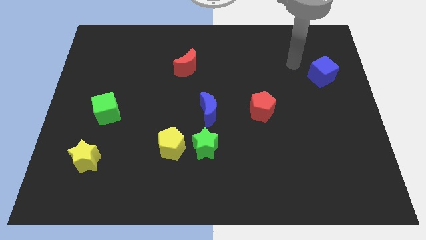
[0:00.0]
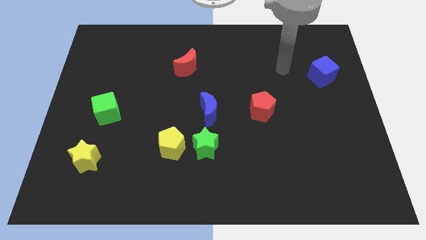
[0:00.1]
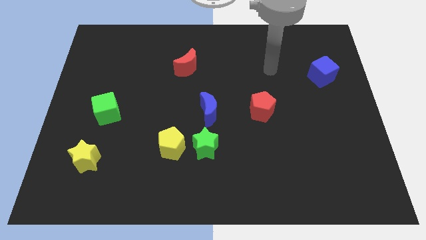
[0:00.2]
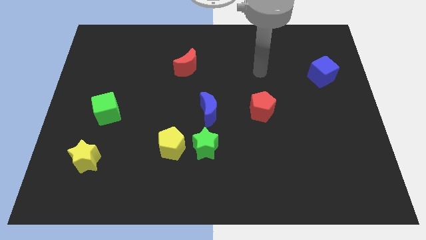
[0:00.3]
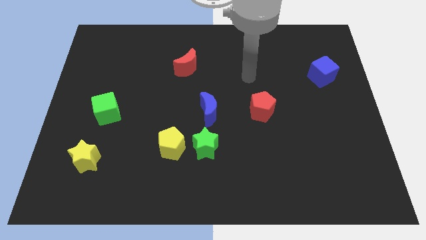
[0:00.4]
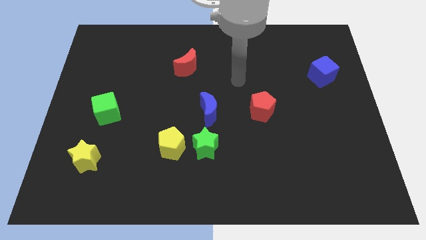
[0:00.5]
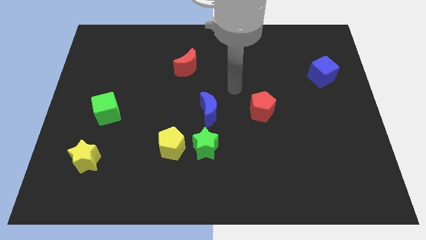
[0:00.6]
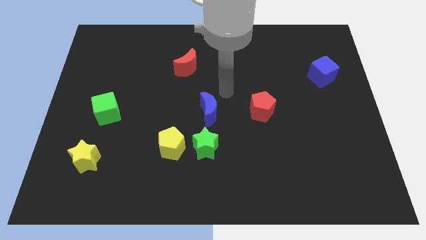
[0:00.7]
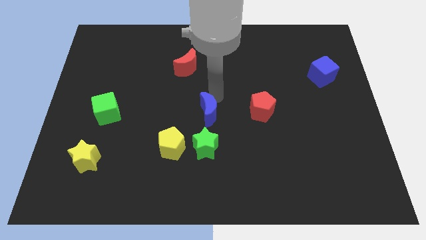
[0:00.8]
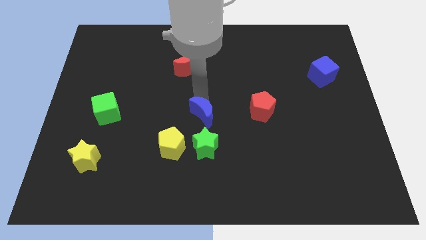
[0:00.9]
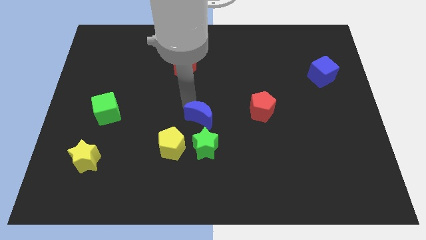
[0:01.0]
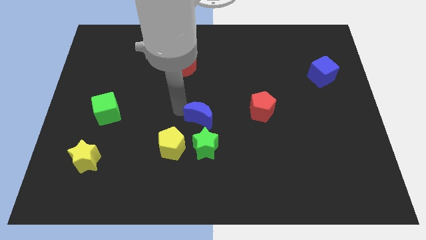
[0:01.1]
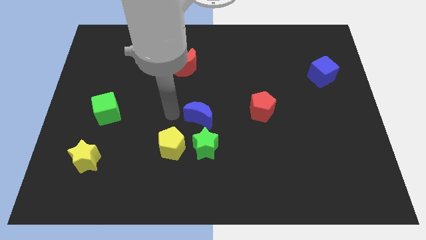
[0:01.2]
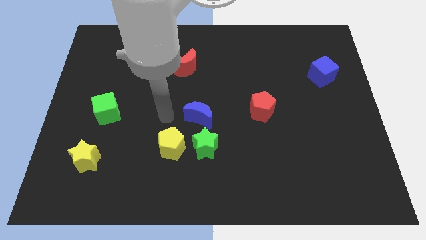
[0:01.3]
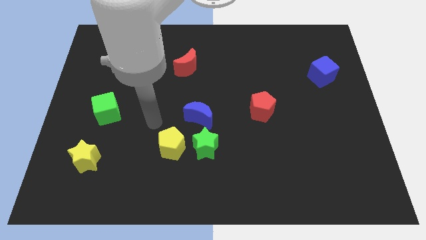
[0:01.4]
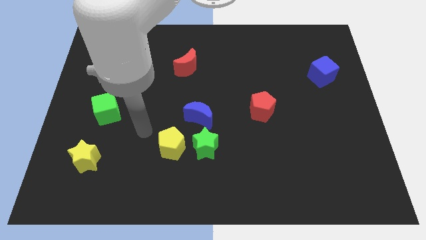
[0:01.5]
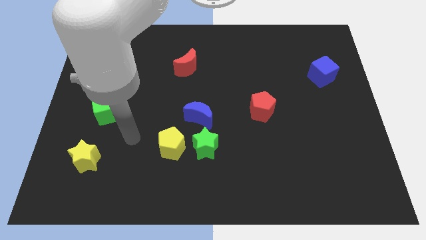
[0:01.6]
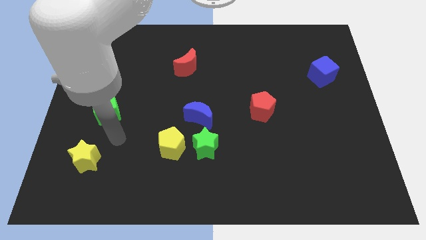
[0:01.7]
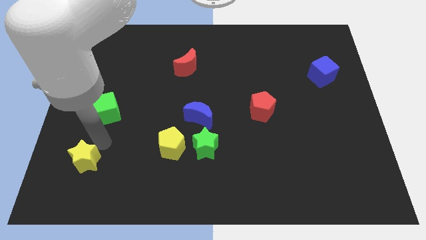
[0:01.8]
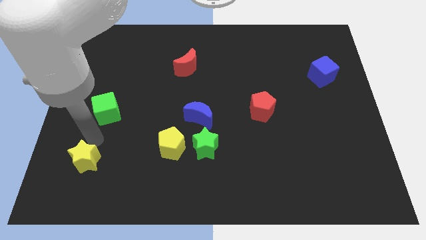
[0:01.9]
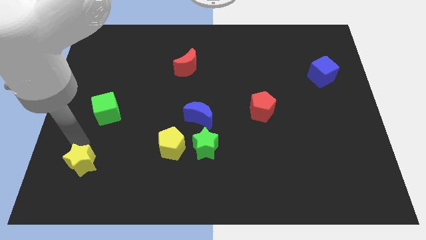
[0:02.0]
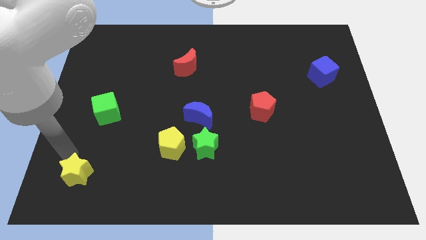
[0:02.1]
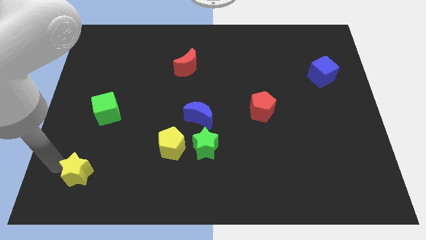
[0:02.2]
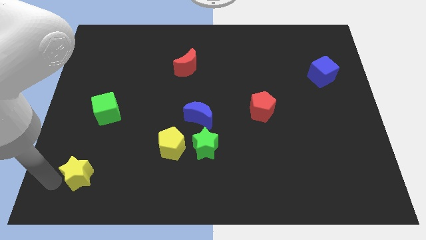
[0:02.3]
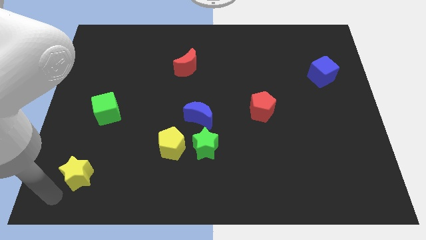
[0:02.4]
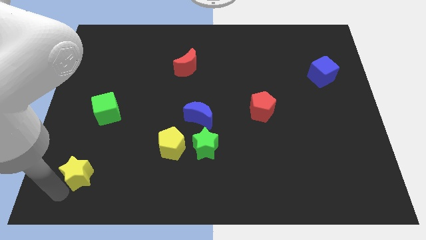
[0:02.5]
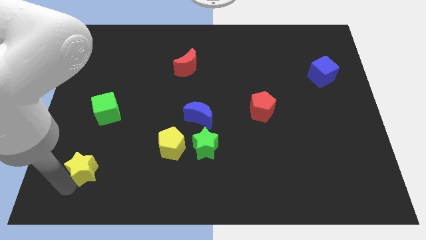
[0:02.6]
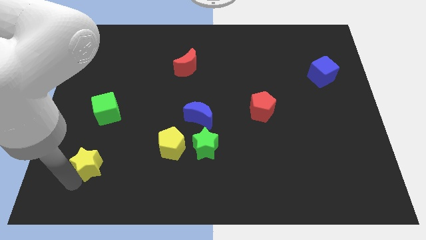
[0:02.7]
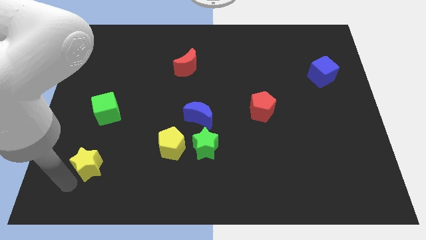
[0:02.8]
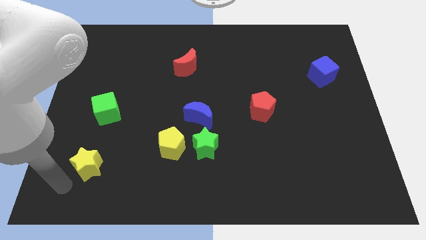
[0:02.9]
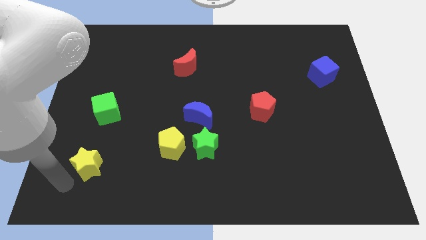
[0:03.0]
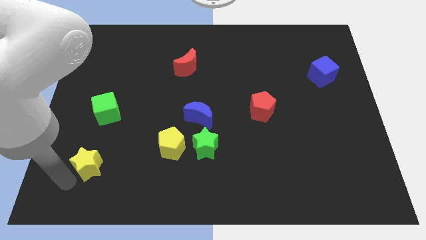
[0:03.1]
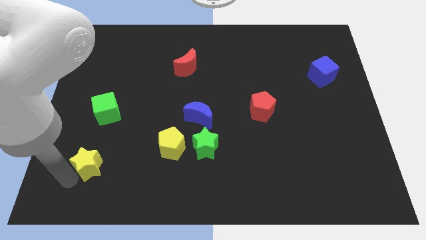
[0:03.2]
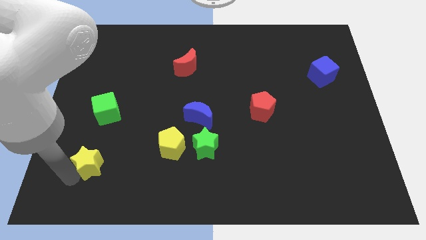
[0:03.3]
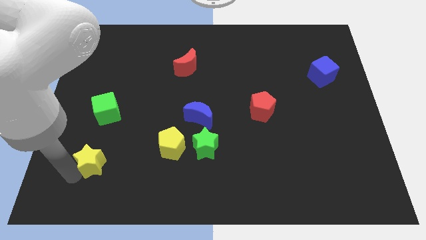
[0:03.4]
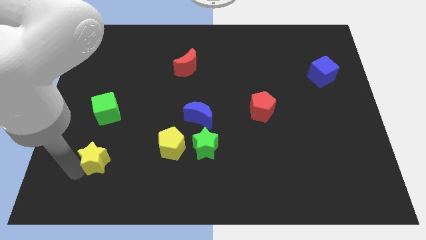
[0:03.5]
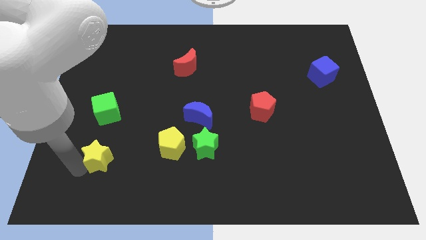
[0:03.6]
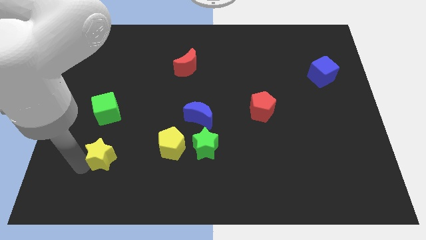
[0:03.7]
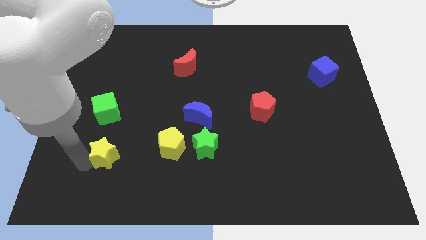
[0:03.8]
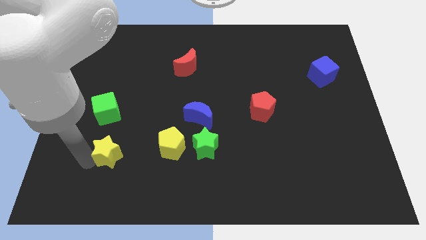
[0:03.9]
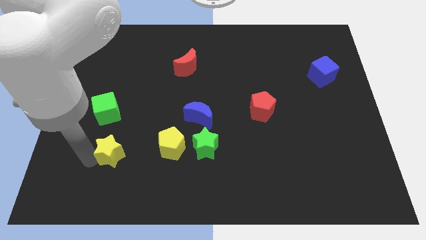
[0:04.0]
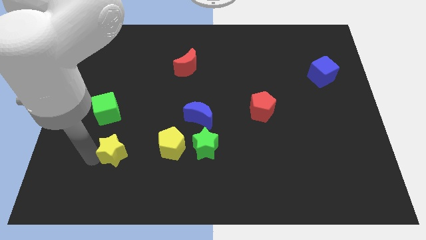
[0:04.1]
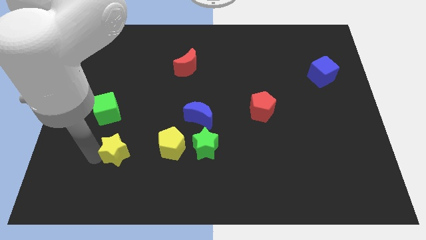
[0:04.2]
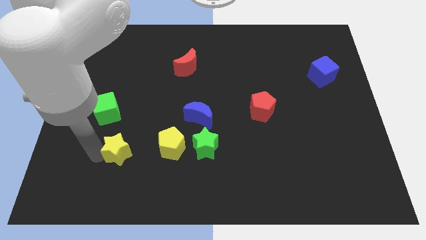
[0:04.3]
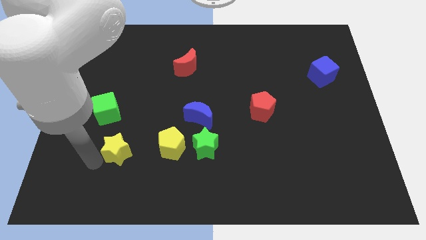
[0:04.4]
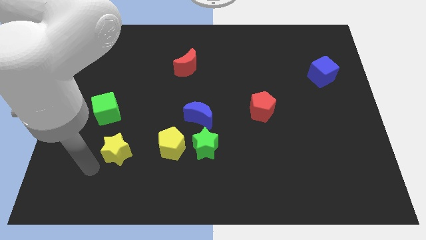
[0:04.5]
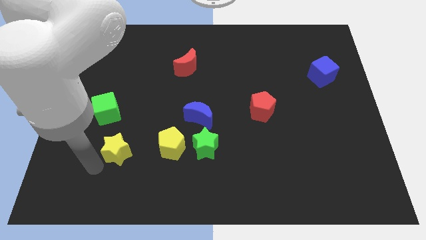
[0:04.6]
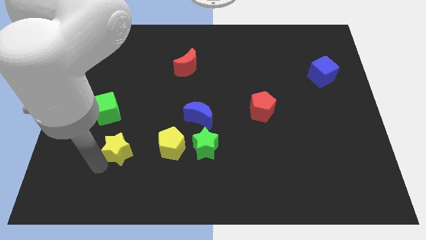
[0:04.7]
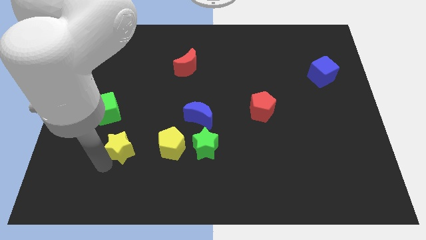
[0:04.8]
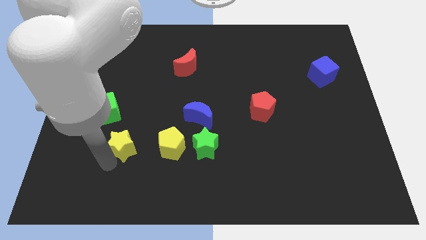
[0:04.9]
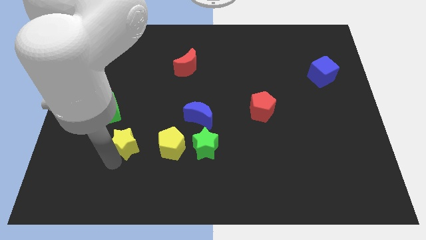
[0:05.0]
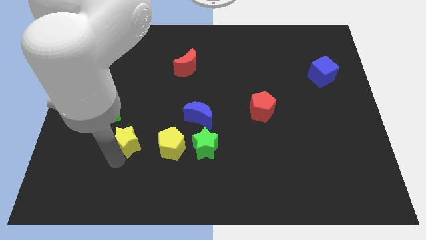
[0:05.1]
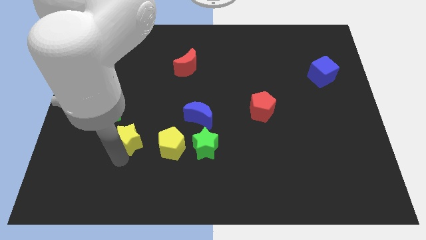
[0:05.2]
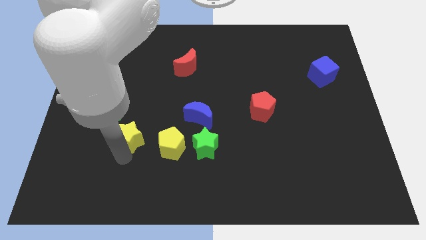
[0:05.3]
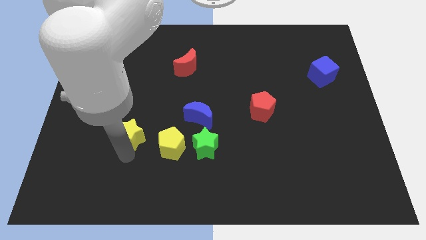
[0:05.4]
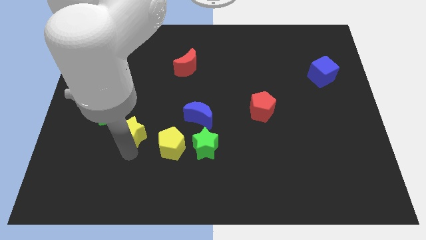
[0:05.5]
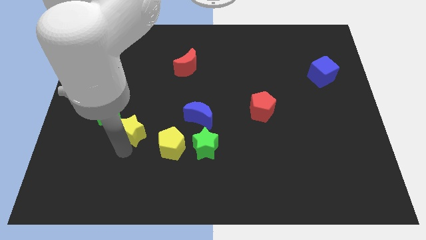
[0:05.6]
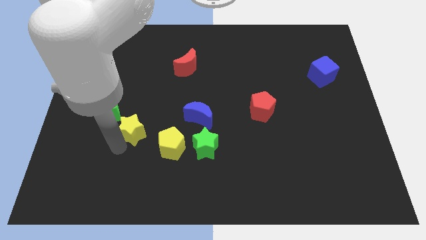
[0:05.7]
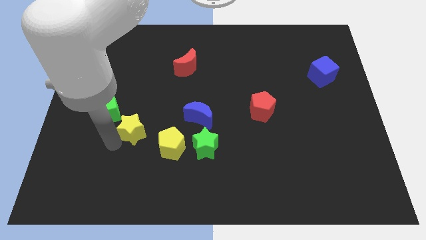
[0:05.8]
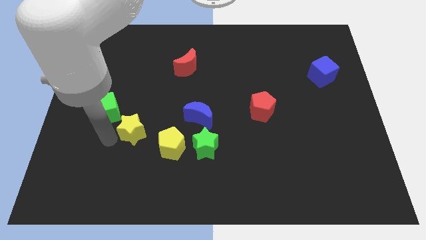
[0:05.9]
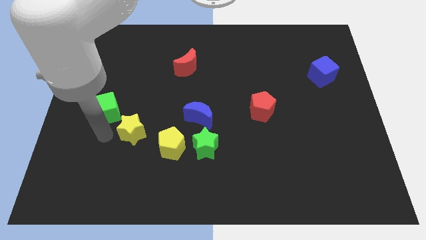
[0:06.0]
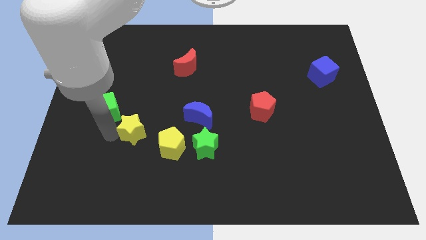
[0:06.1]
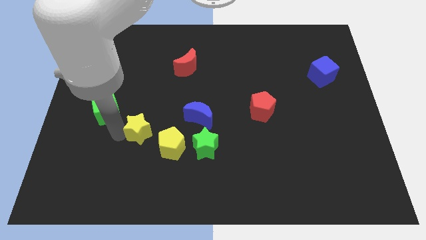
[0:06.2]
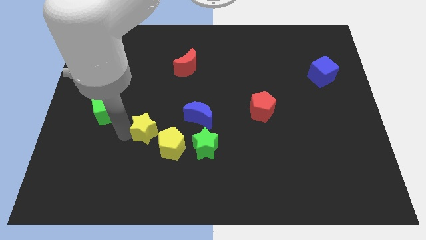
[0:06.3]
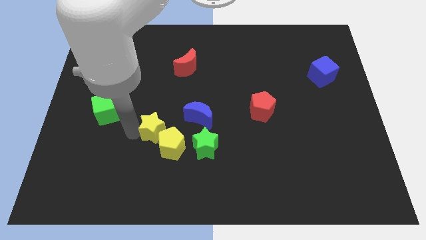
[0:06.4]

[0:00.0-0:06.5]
slide the yellow star diagonally down and to the left of the blue moon

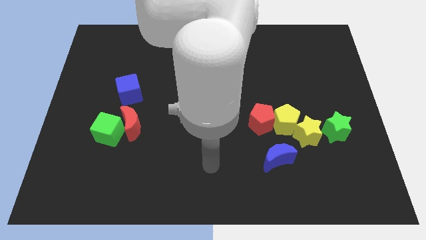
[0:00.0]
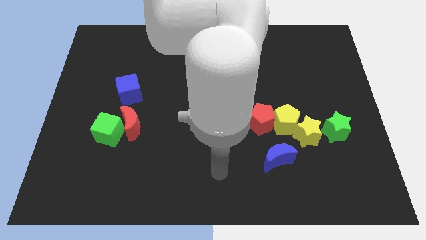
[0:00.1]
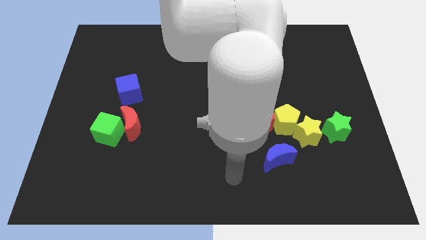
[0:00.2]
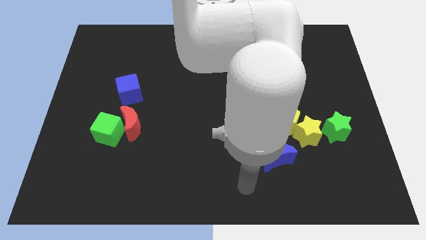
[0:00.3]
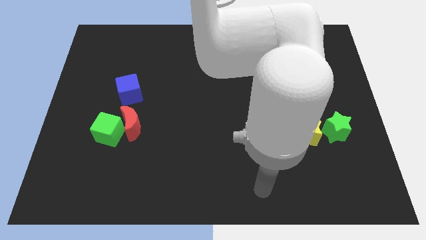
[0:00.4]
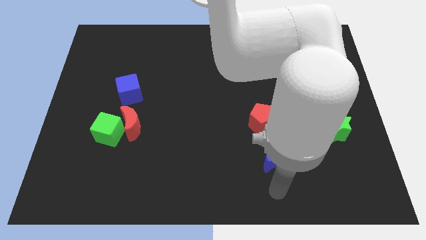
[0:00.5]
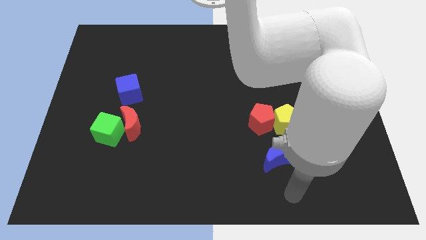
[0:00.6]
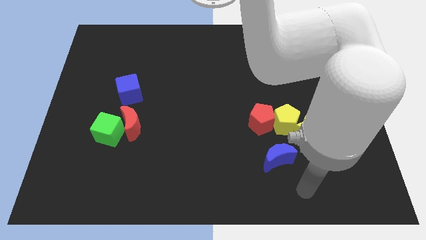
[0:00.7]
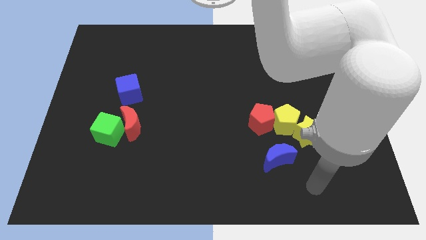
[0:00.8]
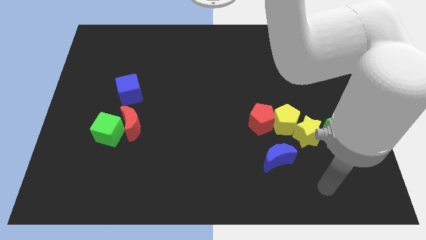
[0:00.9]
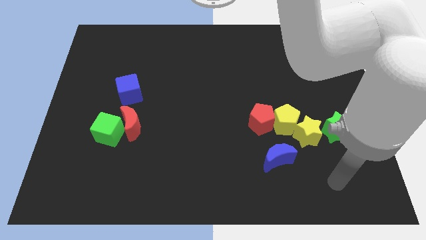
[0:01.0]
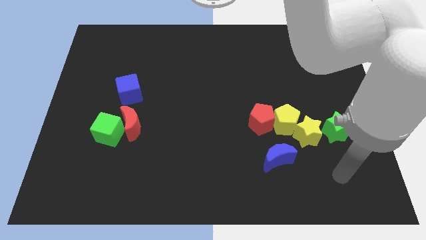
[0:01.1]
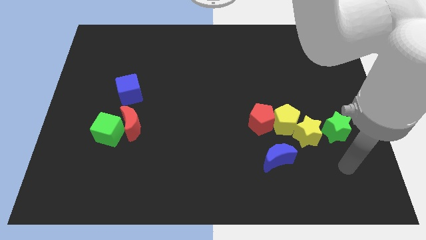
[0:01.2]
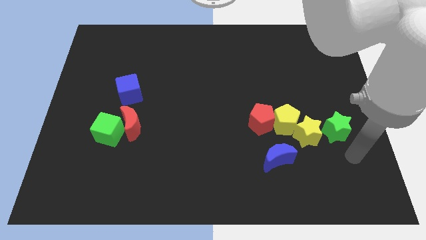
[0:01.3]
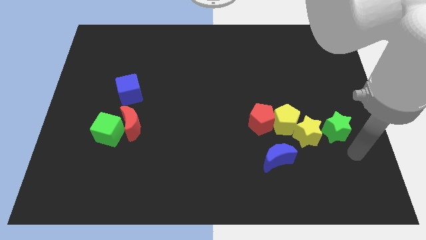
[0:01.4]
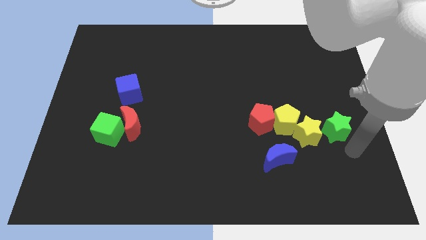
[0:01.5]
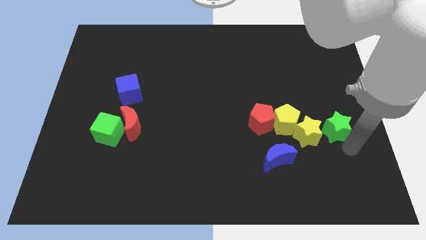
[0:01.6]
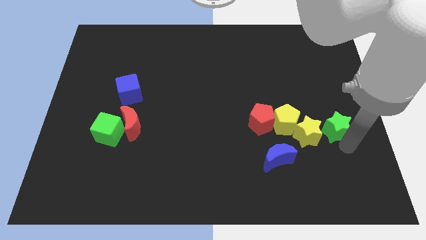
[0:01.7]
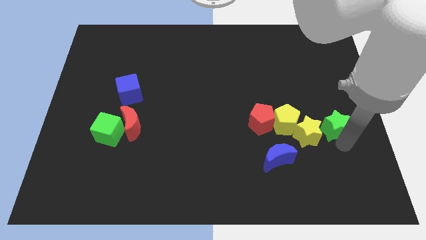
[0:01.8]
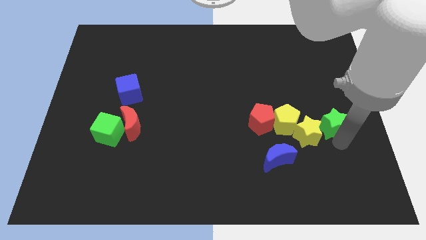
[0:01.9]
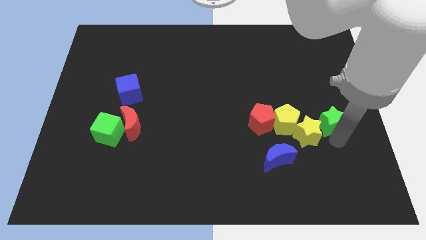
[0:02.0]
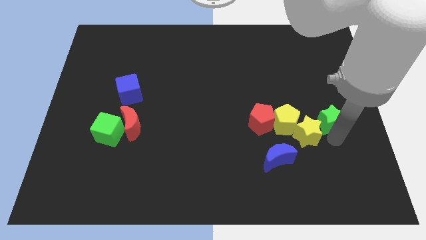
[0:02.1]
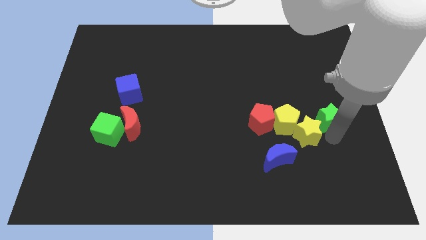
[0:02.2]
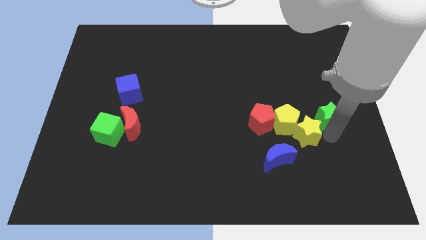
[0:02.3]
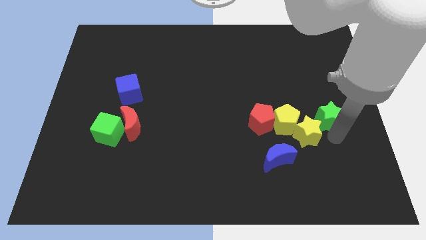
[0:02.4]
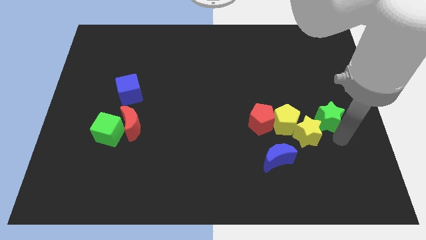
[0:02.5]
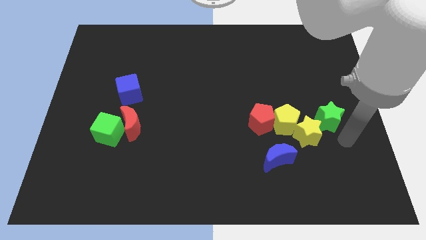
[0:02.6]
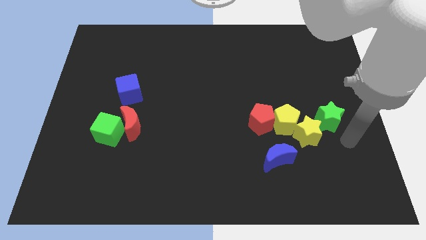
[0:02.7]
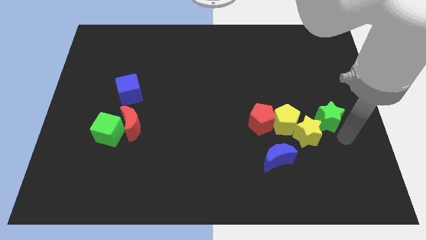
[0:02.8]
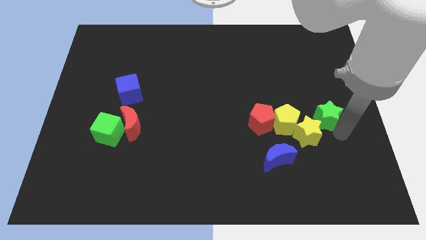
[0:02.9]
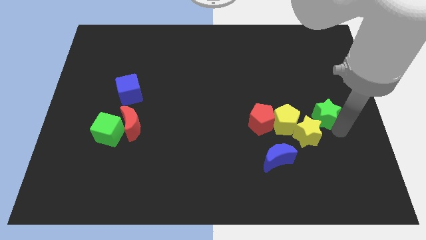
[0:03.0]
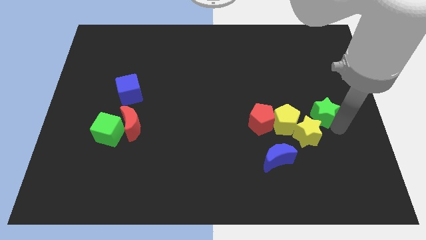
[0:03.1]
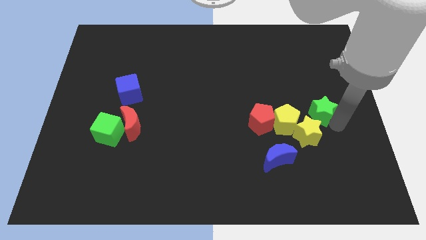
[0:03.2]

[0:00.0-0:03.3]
push the green star to the top right of the yellow pentagon
